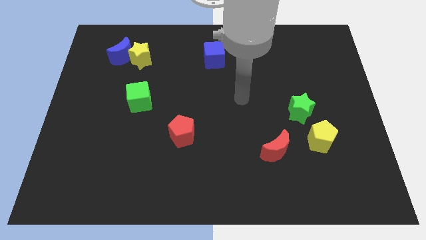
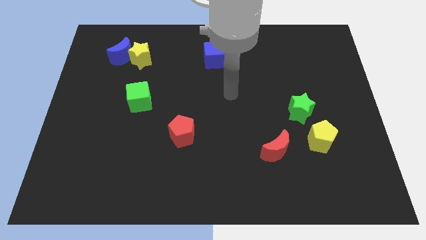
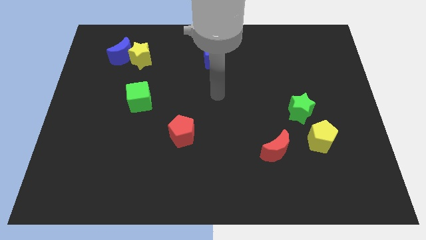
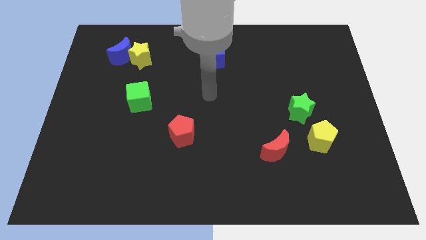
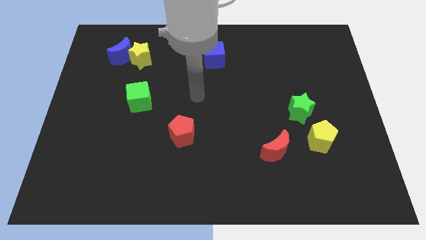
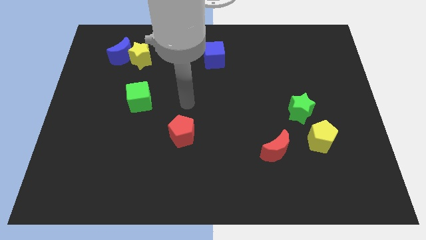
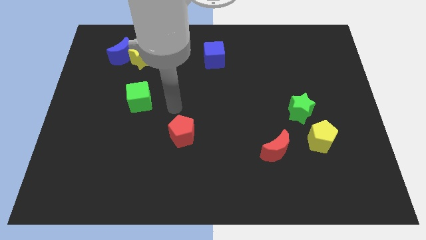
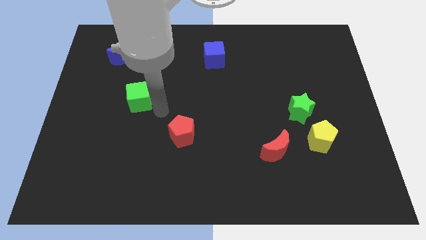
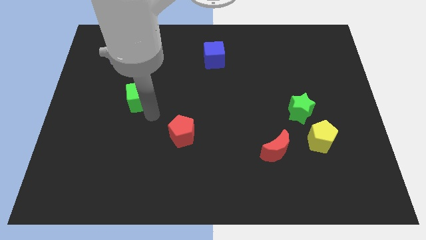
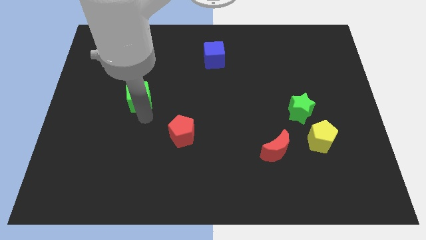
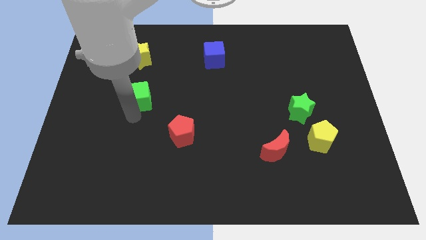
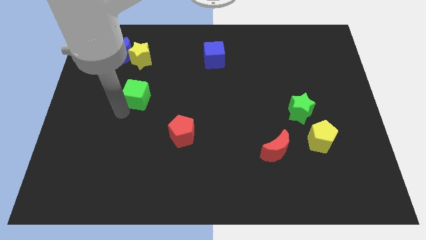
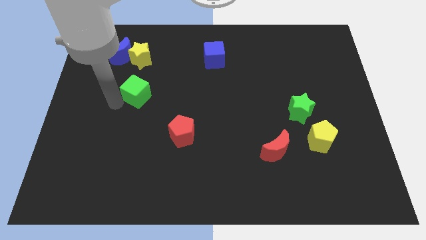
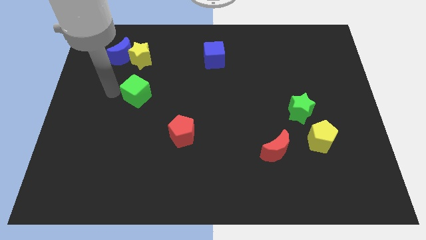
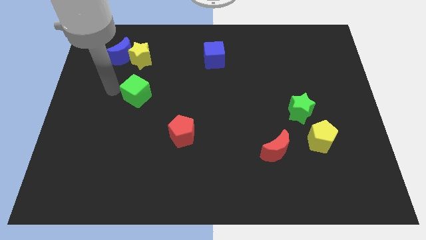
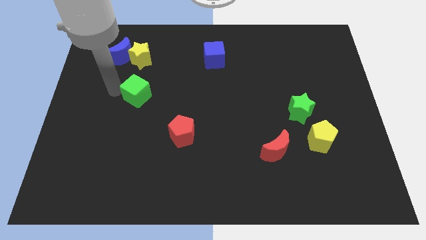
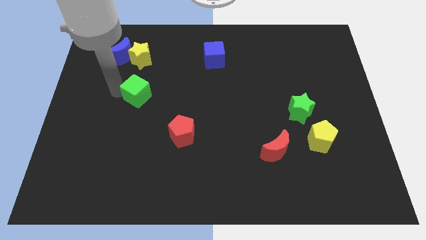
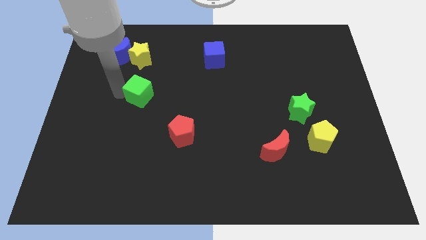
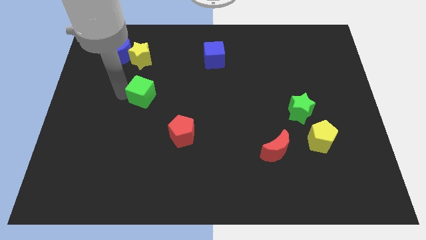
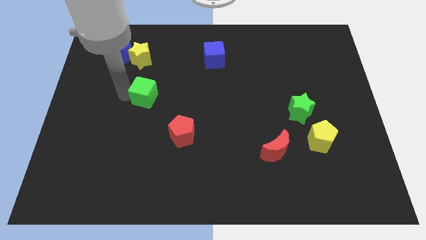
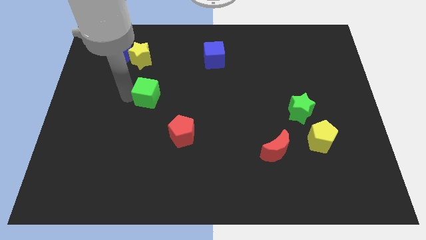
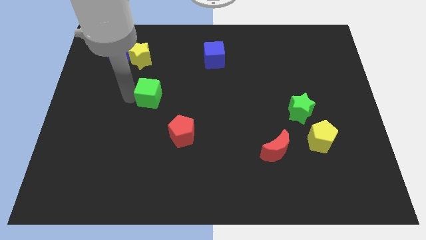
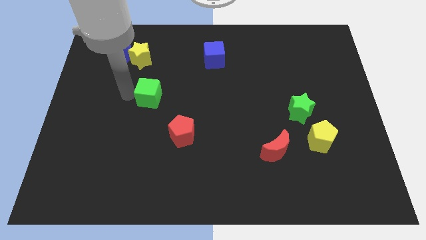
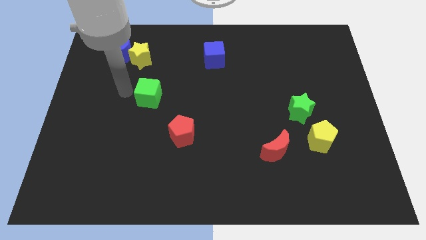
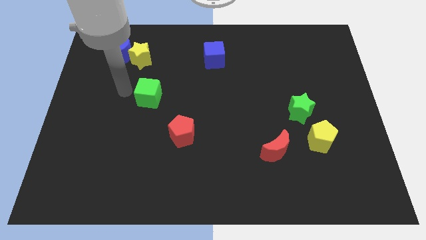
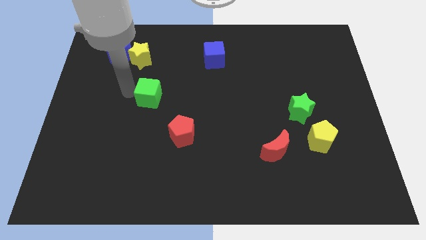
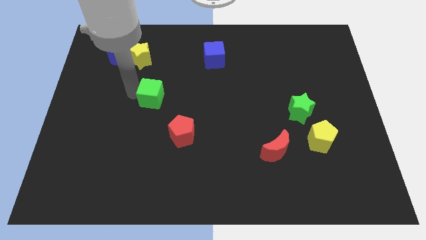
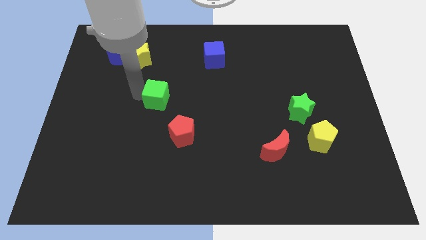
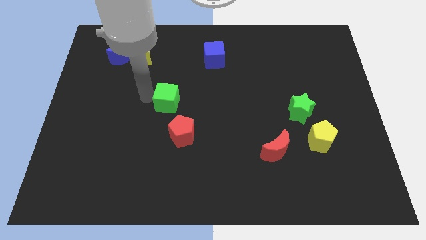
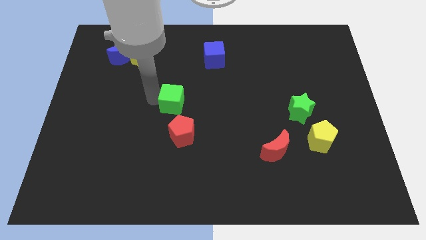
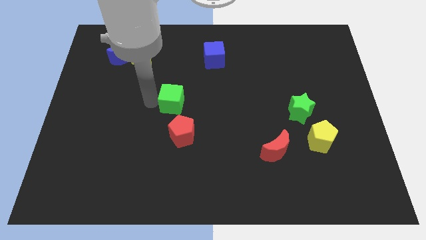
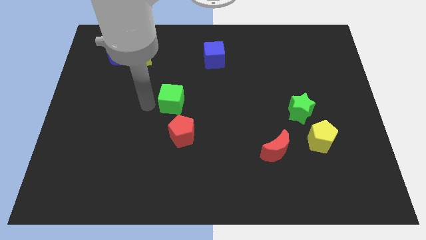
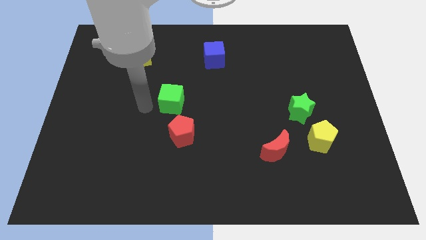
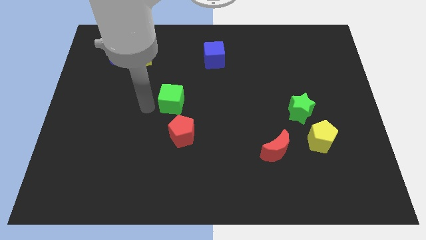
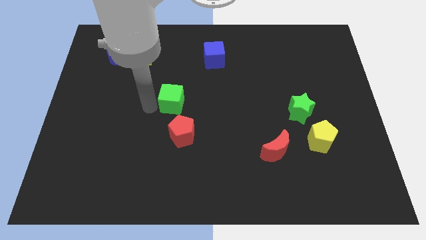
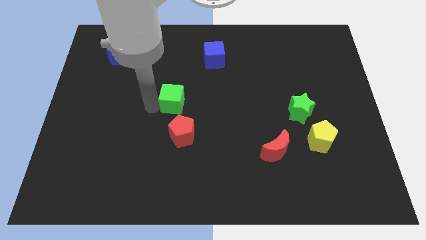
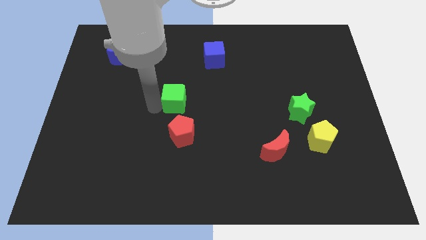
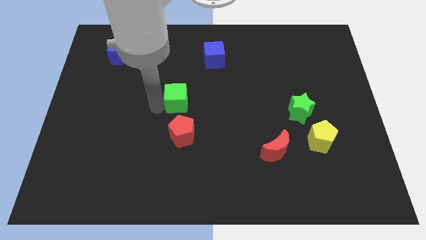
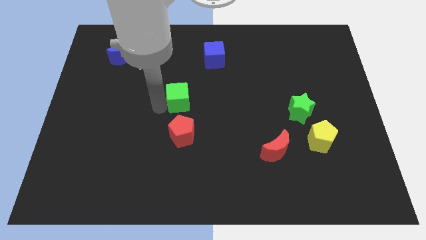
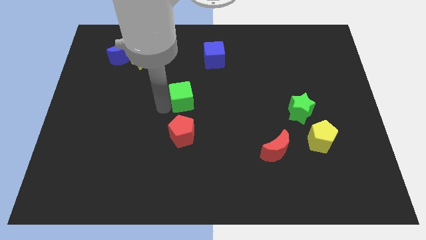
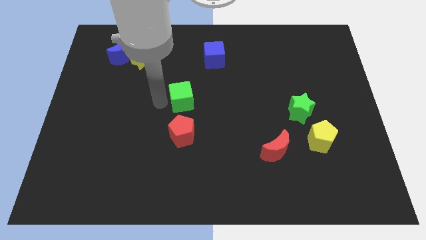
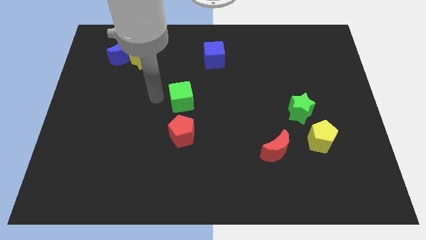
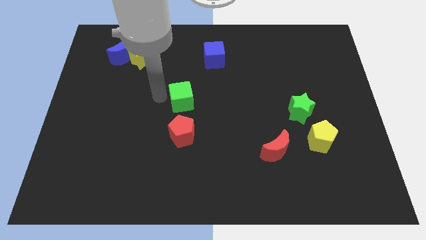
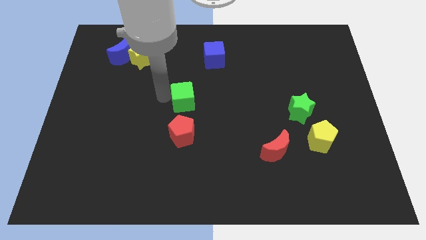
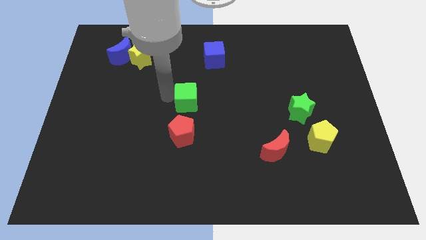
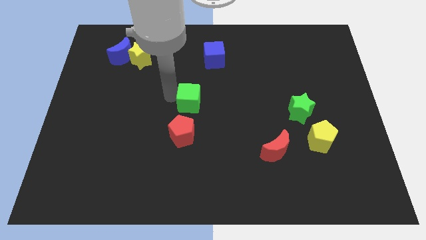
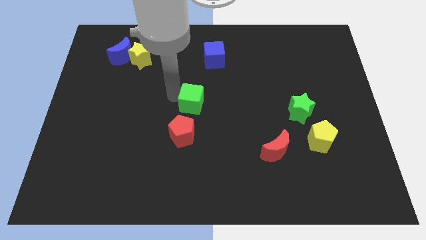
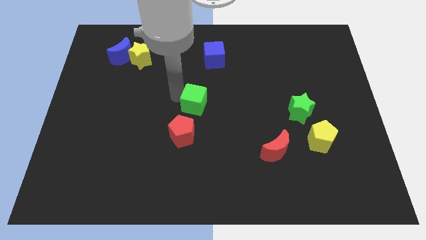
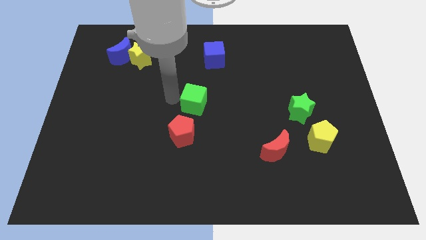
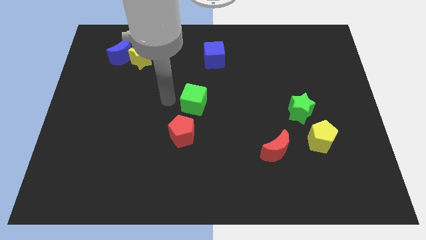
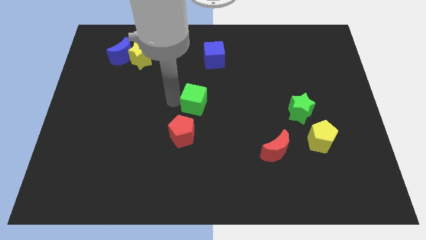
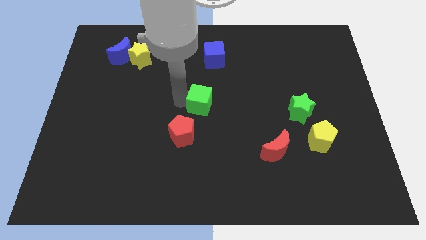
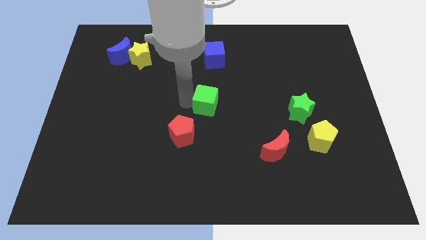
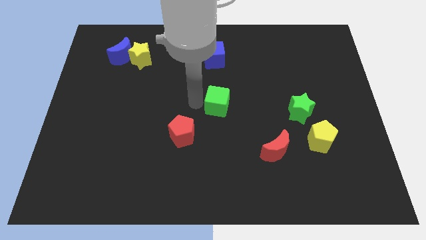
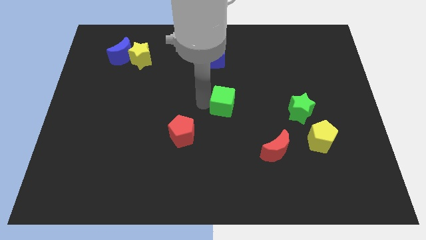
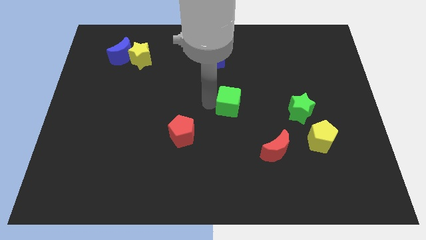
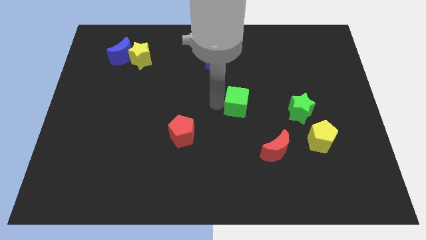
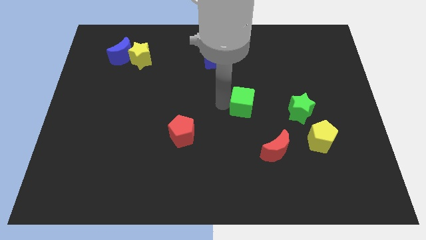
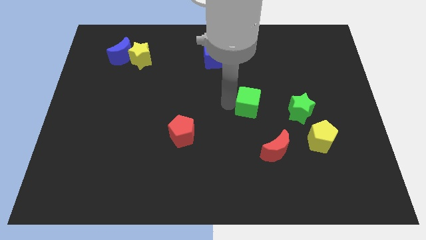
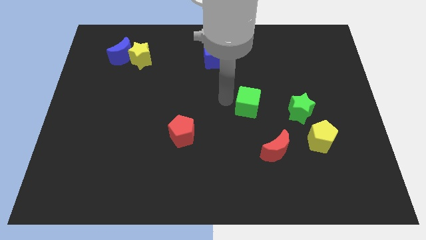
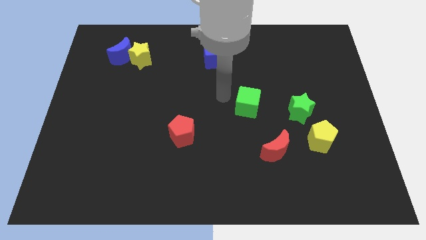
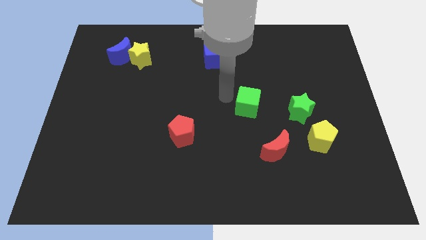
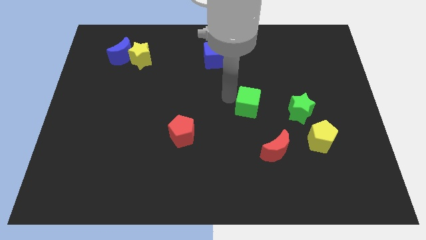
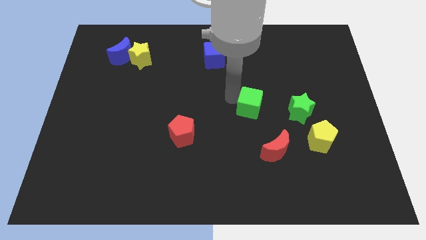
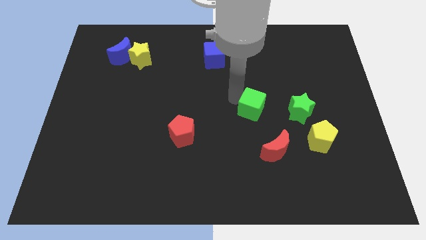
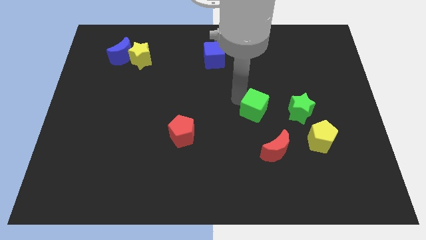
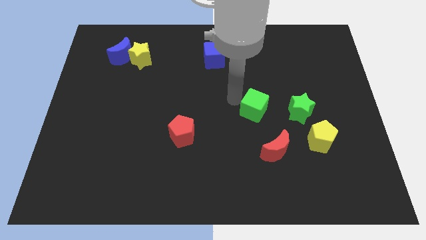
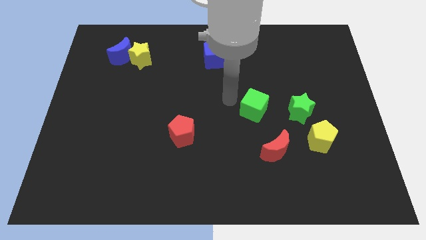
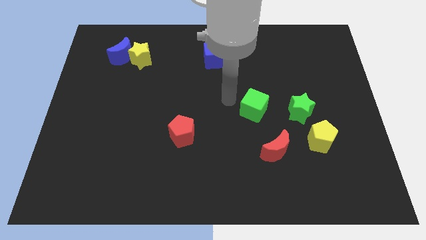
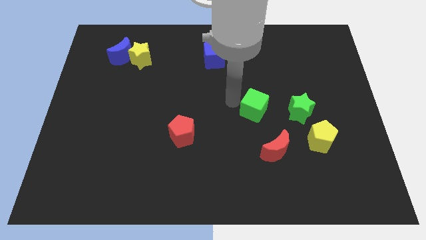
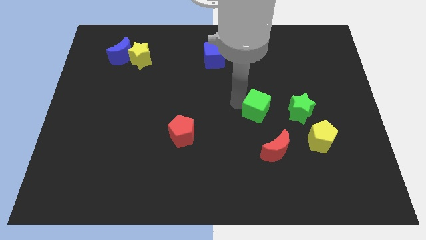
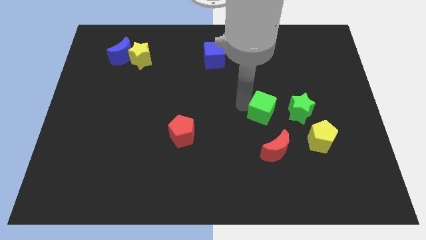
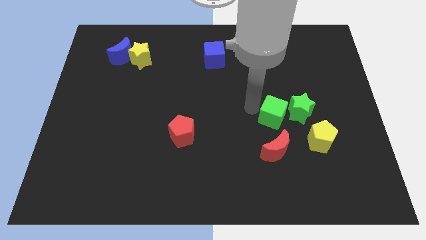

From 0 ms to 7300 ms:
move the green cube diagonally up and to the left of the yellow pentagon
